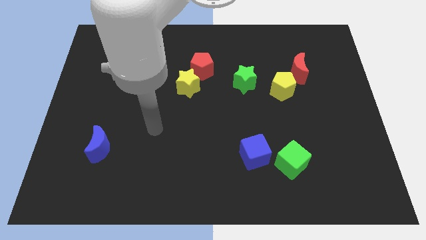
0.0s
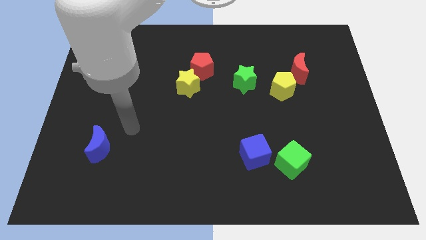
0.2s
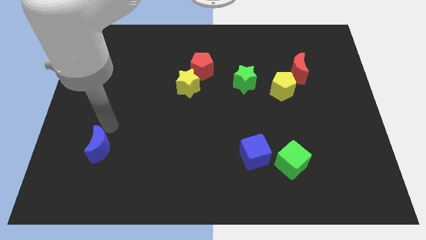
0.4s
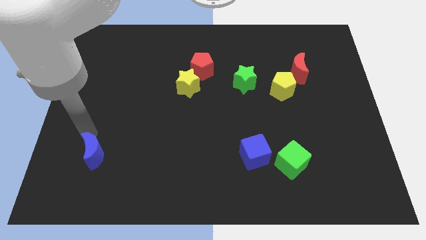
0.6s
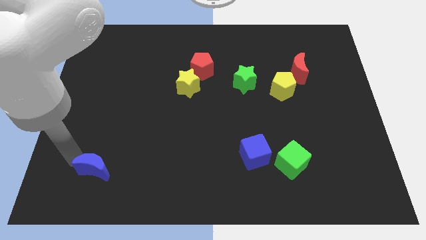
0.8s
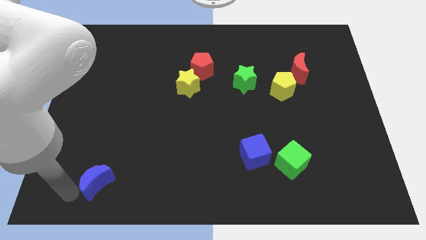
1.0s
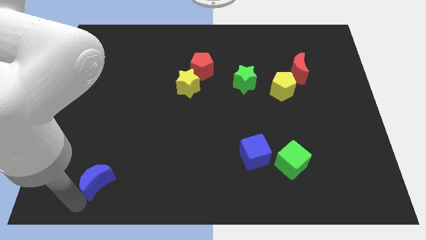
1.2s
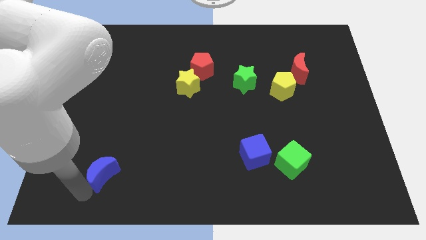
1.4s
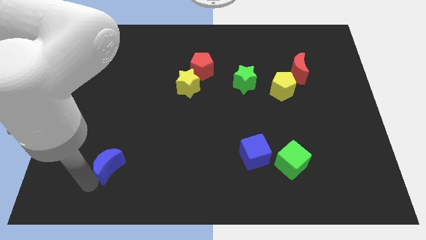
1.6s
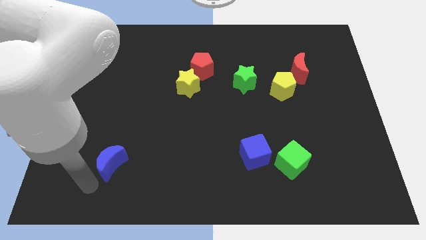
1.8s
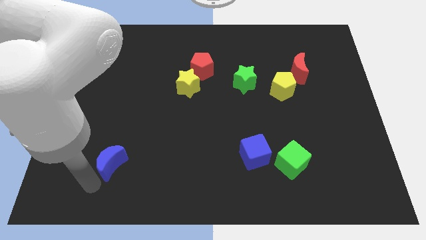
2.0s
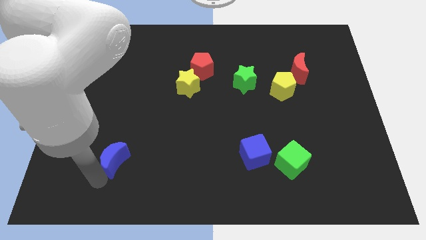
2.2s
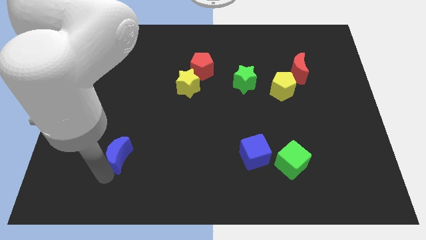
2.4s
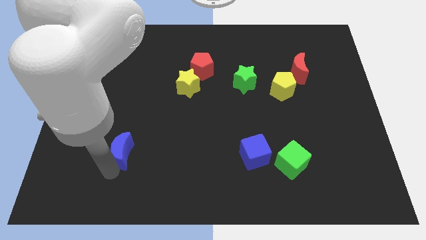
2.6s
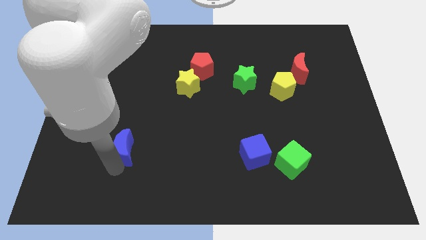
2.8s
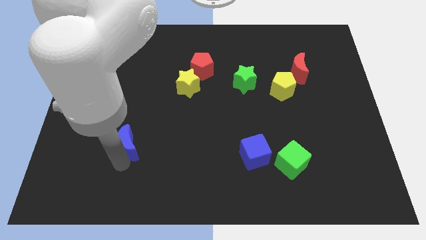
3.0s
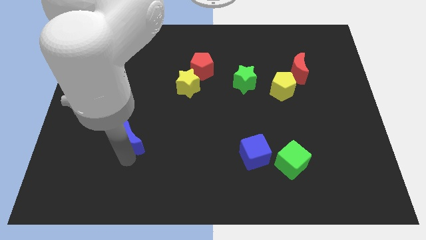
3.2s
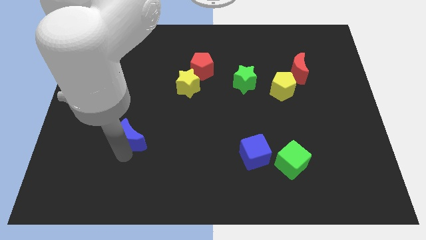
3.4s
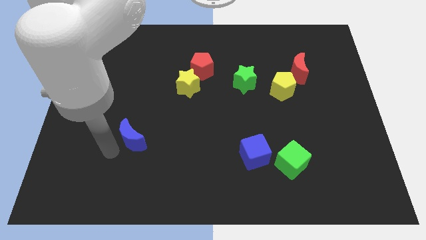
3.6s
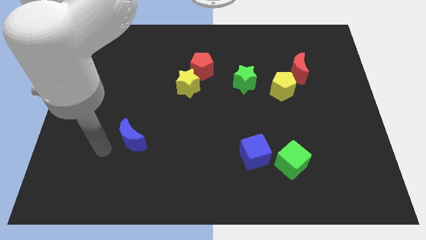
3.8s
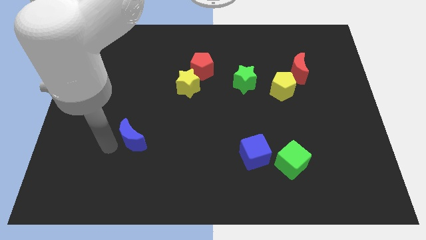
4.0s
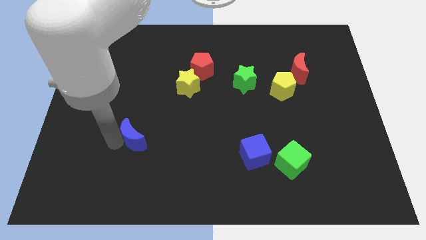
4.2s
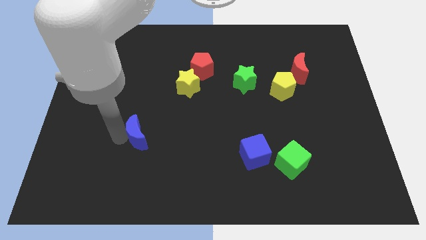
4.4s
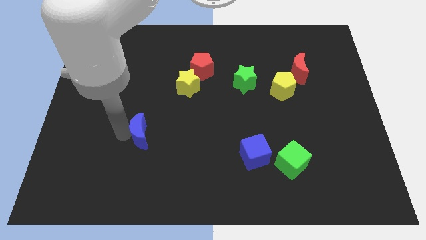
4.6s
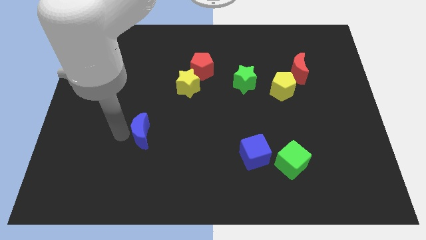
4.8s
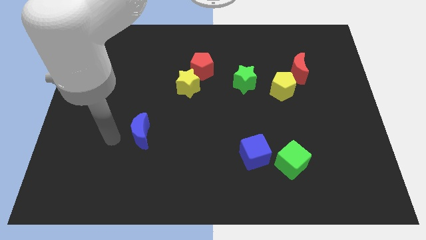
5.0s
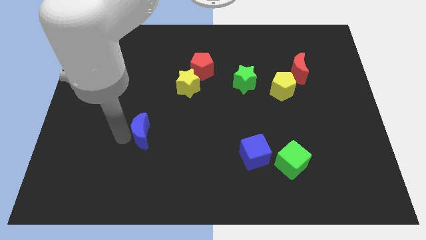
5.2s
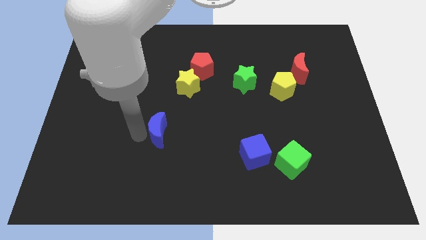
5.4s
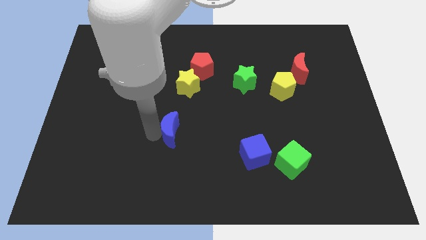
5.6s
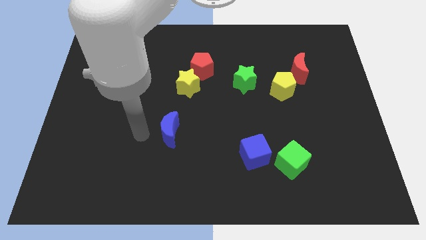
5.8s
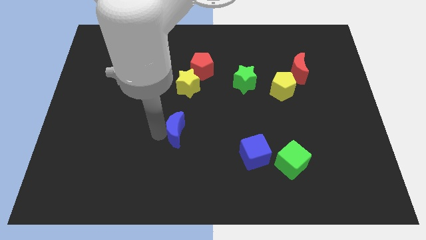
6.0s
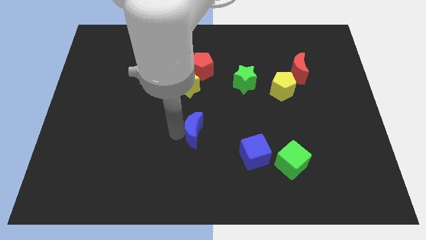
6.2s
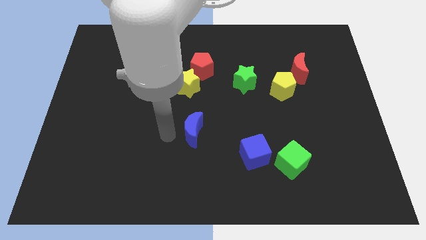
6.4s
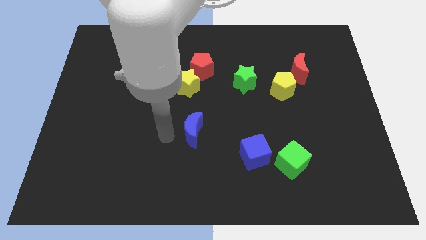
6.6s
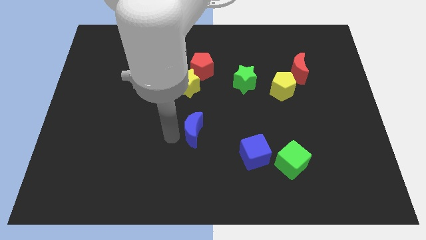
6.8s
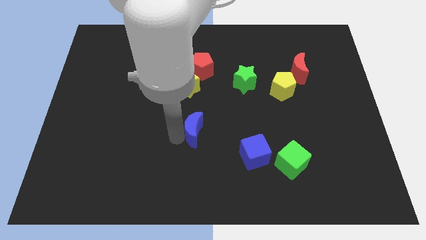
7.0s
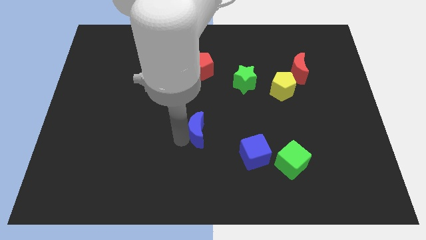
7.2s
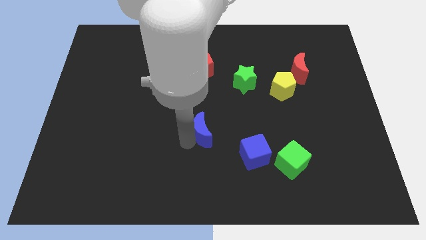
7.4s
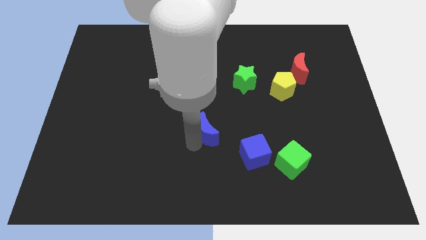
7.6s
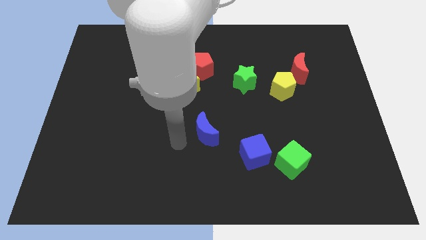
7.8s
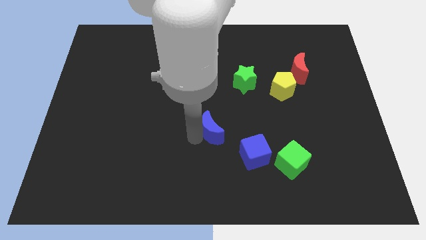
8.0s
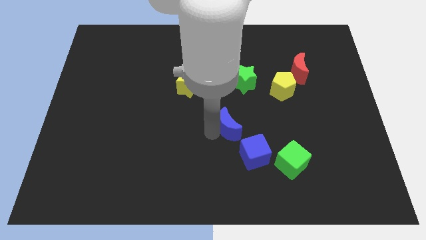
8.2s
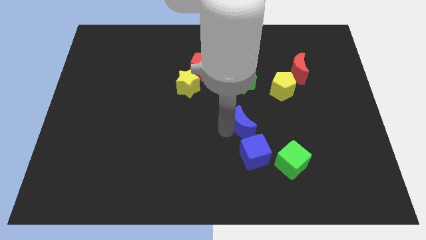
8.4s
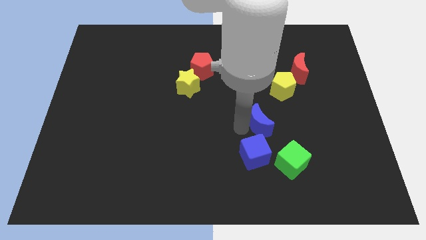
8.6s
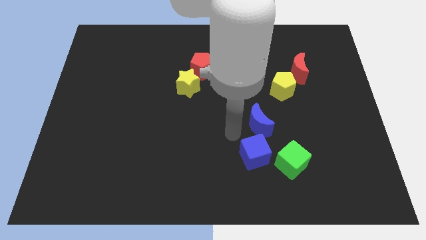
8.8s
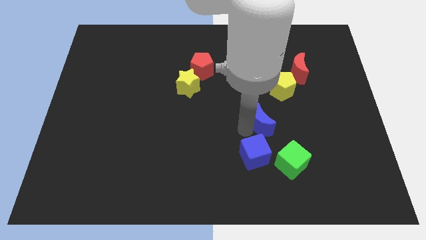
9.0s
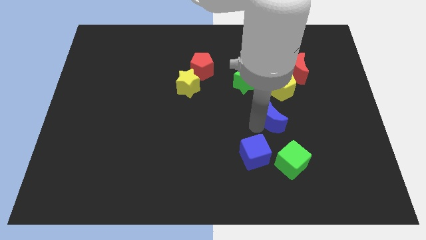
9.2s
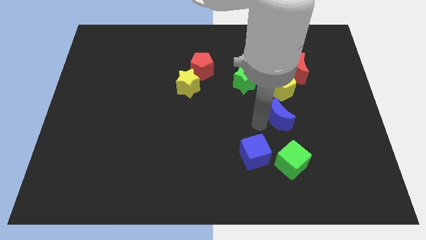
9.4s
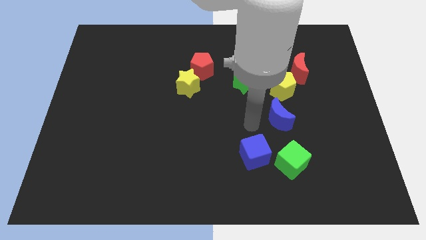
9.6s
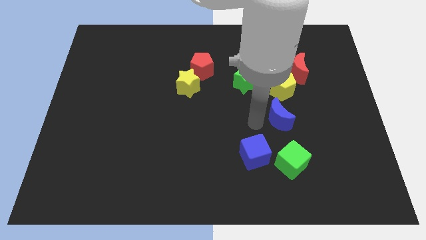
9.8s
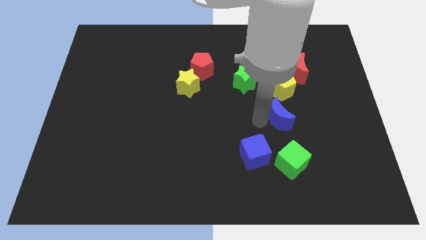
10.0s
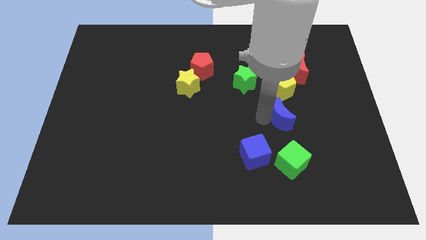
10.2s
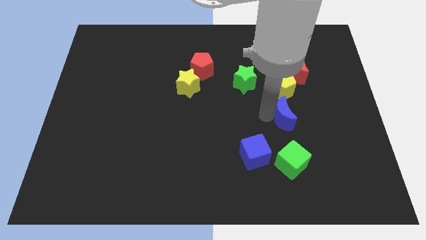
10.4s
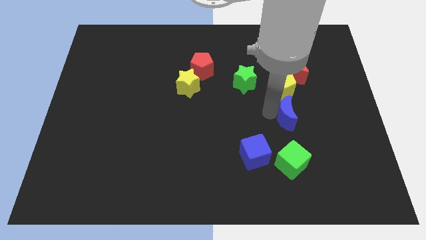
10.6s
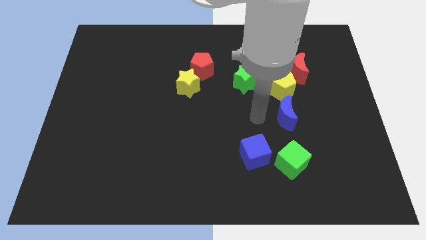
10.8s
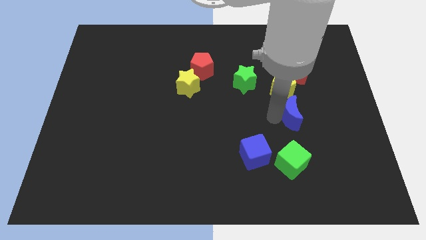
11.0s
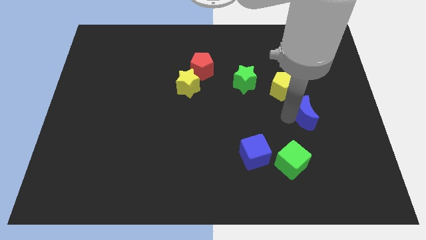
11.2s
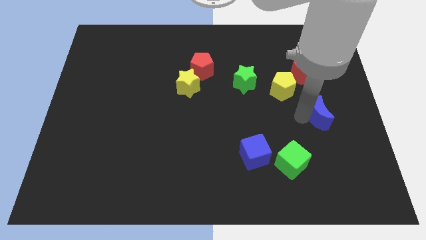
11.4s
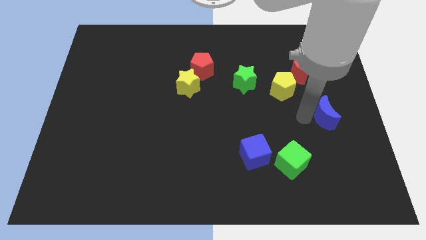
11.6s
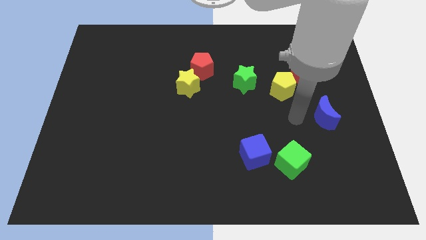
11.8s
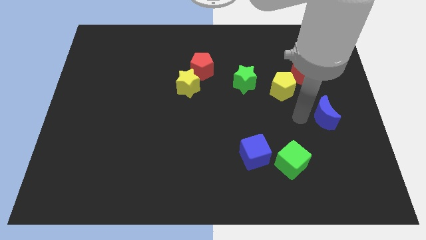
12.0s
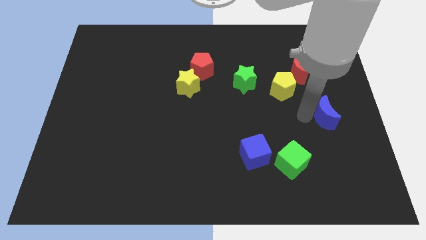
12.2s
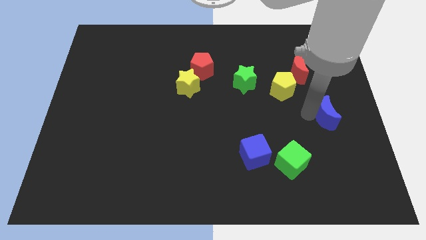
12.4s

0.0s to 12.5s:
move the blue moon to the right side

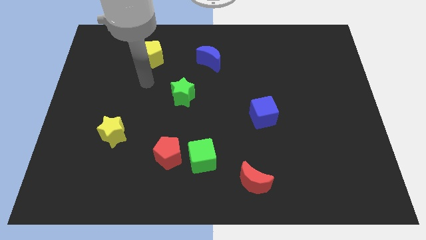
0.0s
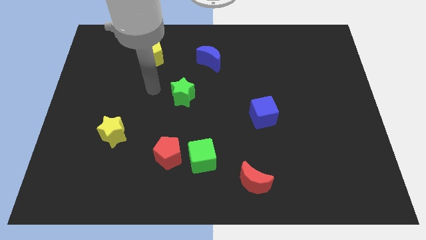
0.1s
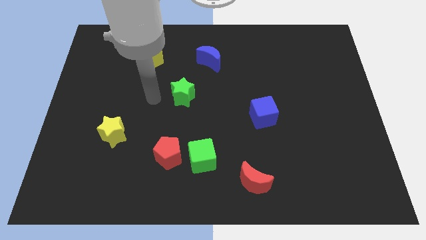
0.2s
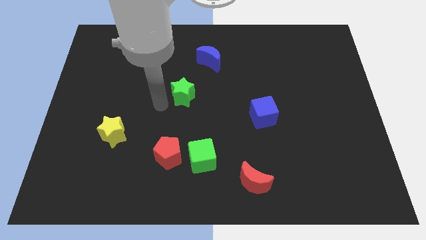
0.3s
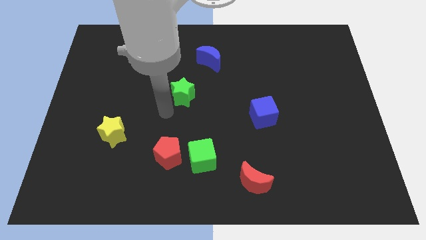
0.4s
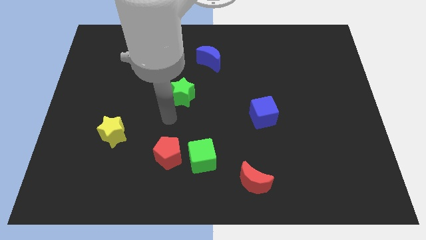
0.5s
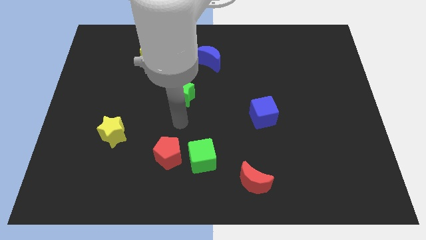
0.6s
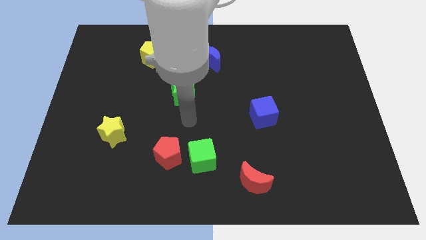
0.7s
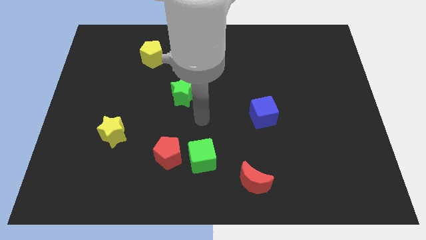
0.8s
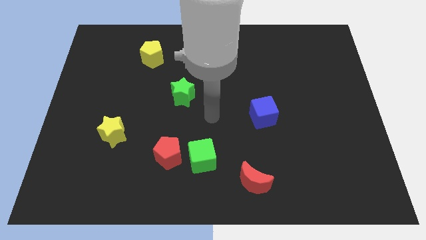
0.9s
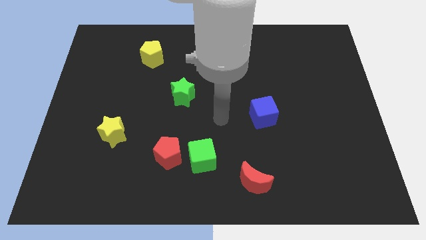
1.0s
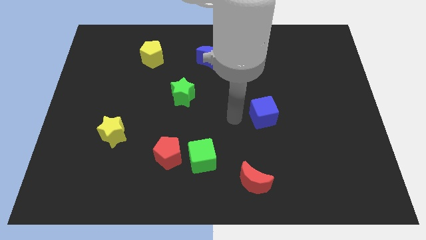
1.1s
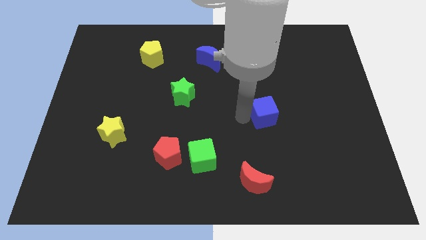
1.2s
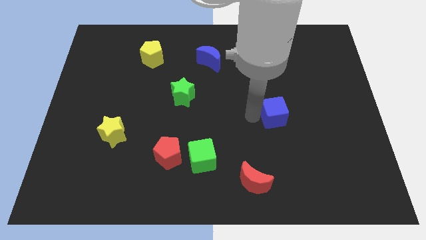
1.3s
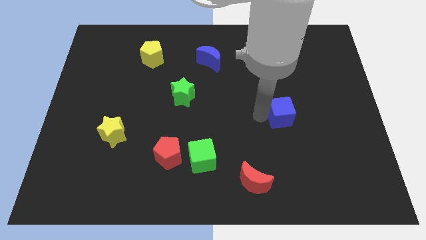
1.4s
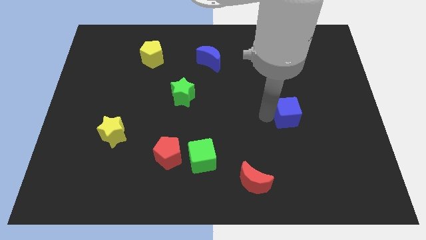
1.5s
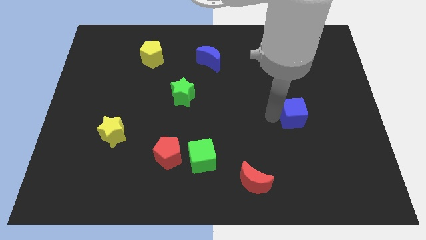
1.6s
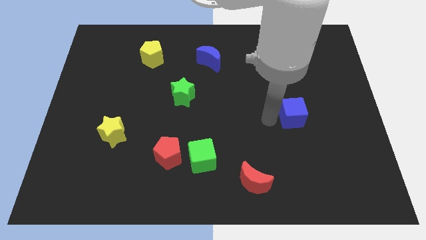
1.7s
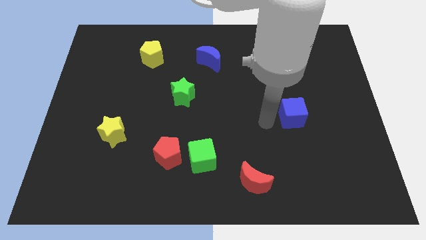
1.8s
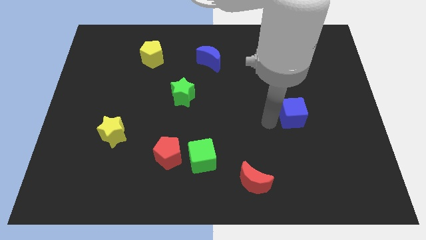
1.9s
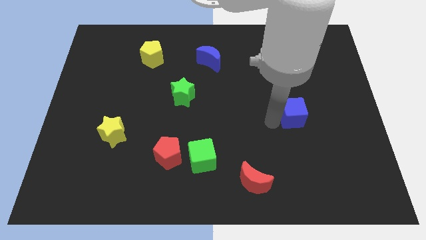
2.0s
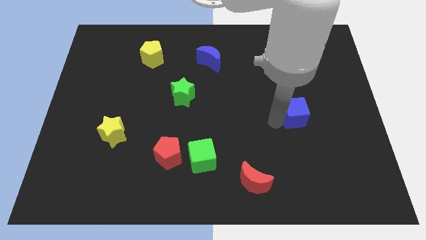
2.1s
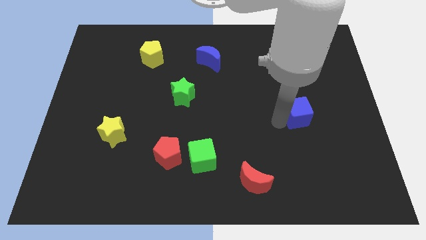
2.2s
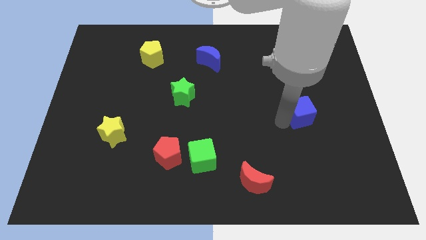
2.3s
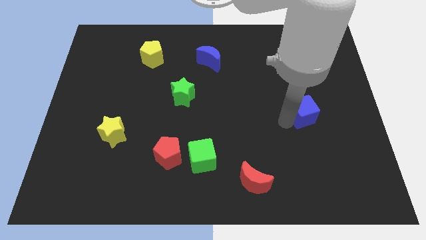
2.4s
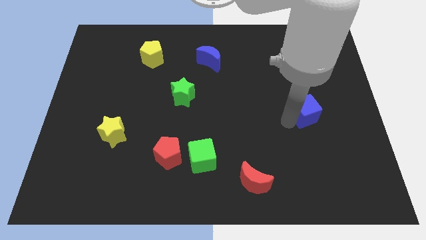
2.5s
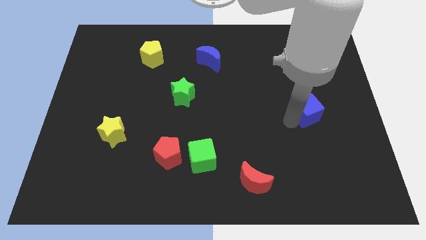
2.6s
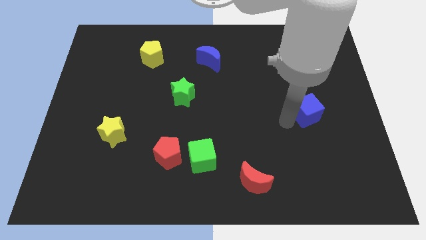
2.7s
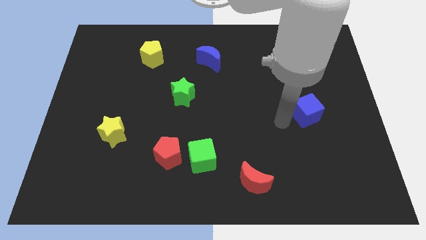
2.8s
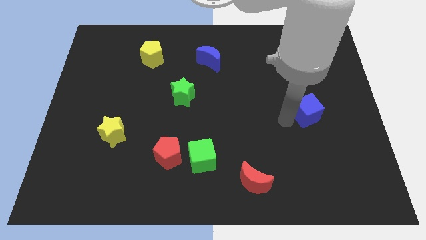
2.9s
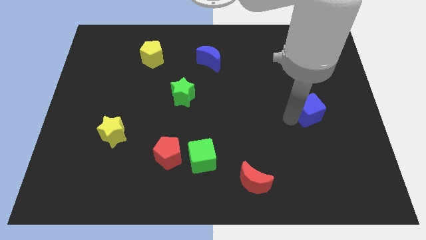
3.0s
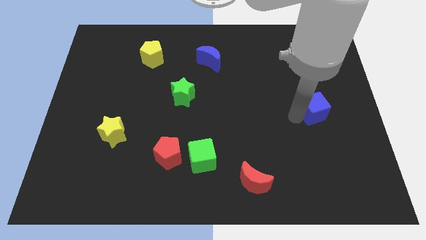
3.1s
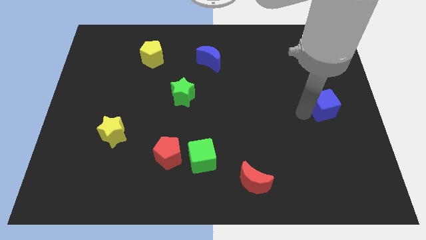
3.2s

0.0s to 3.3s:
slide the blue cube to the right side of the board
